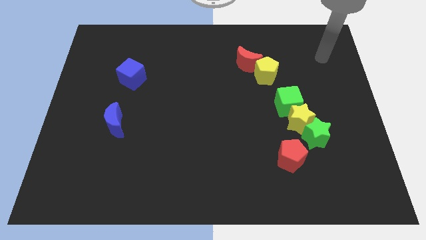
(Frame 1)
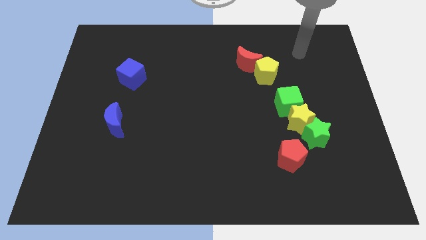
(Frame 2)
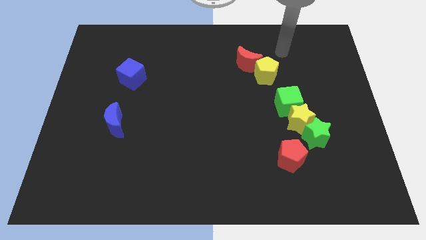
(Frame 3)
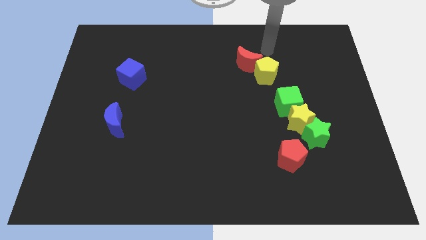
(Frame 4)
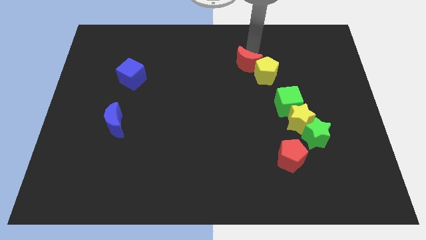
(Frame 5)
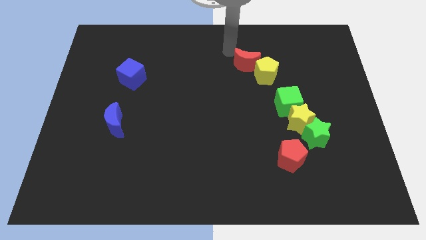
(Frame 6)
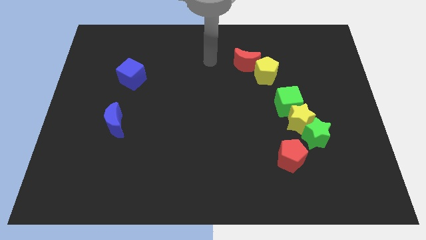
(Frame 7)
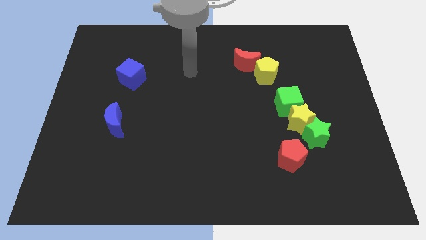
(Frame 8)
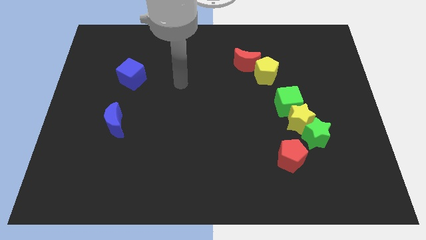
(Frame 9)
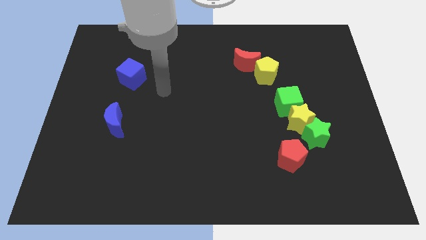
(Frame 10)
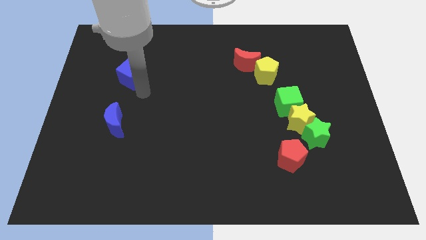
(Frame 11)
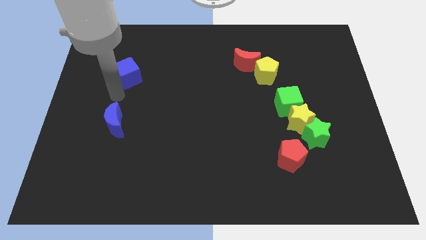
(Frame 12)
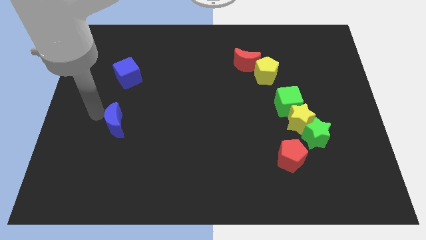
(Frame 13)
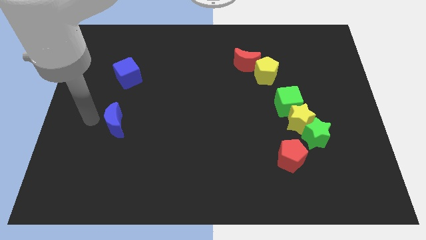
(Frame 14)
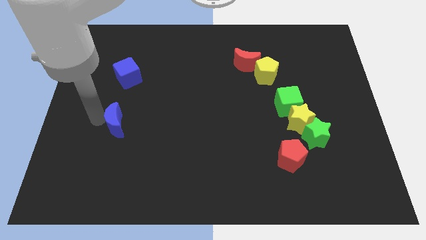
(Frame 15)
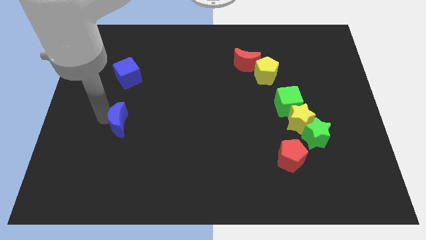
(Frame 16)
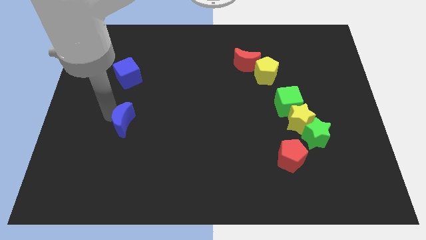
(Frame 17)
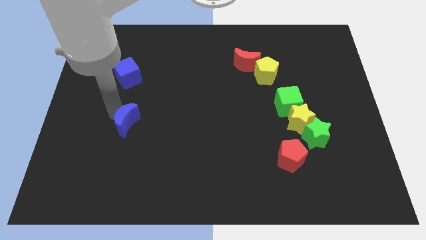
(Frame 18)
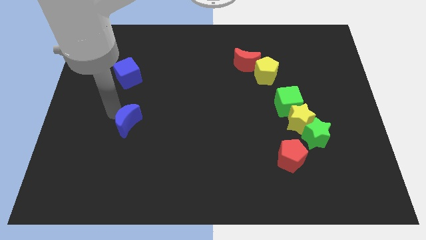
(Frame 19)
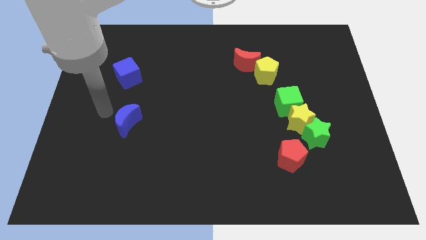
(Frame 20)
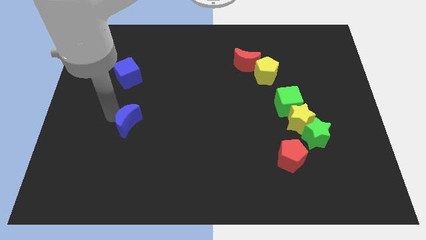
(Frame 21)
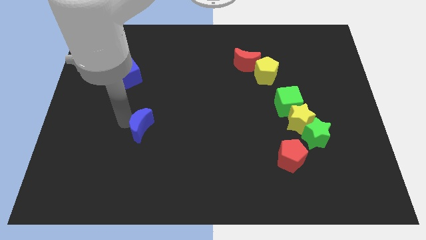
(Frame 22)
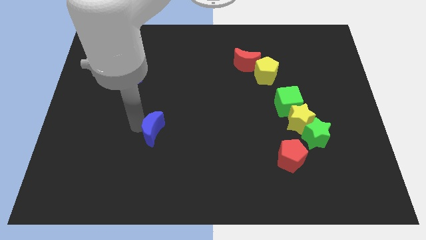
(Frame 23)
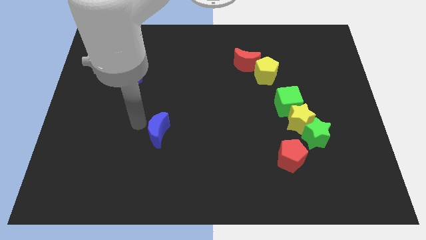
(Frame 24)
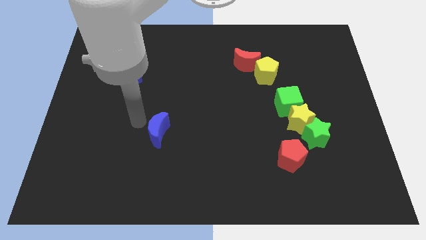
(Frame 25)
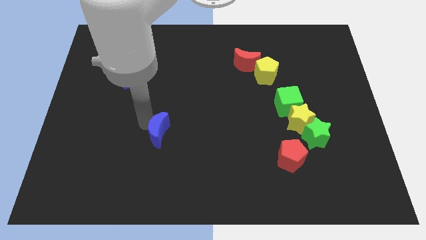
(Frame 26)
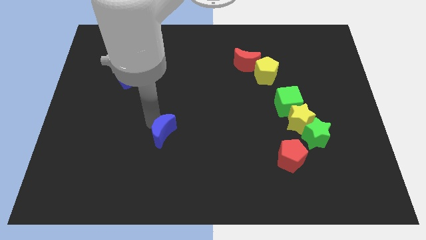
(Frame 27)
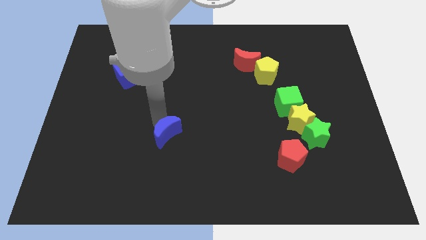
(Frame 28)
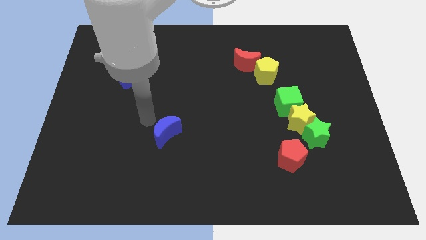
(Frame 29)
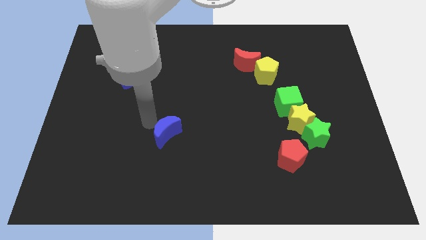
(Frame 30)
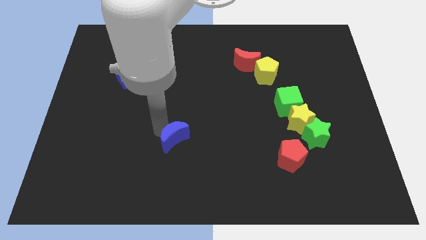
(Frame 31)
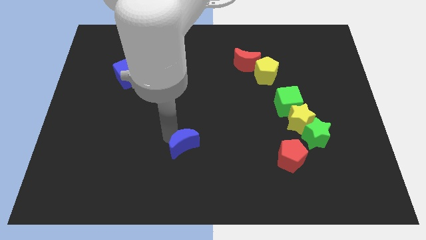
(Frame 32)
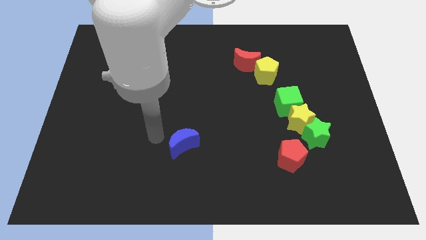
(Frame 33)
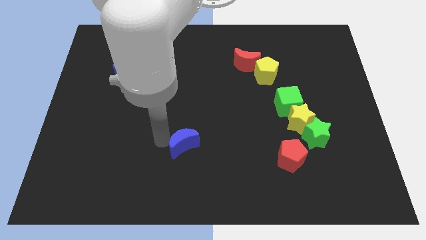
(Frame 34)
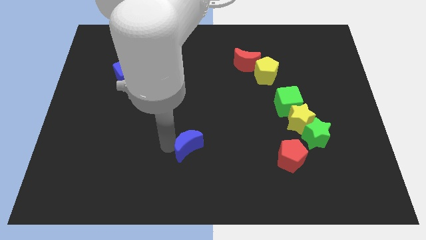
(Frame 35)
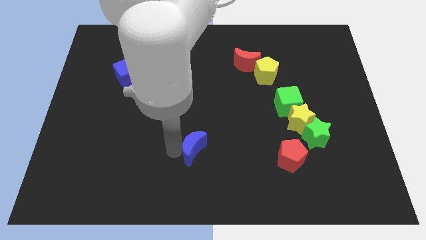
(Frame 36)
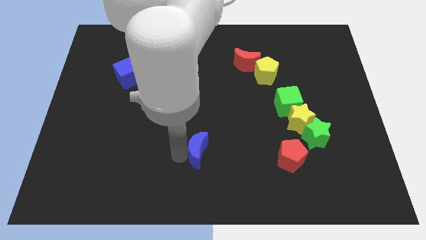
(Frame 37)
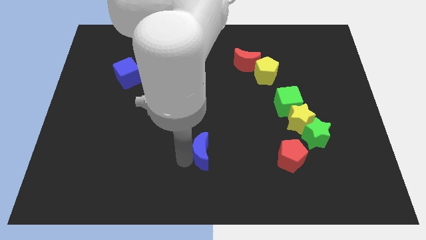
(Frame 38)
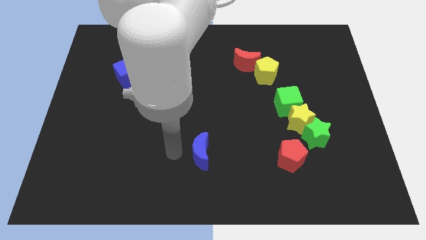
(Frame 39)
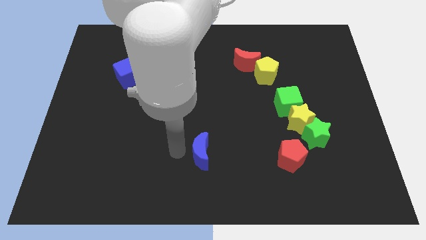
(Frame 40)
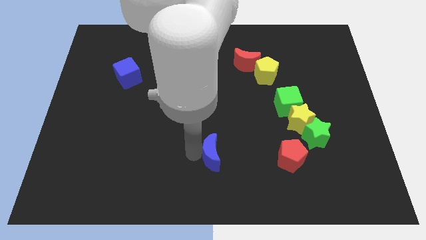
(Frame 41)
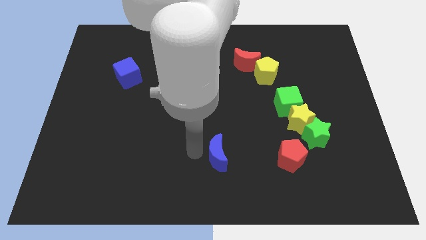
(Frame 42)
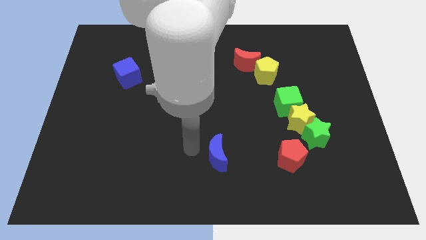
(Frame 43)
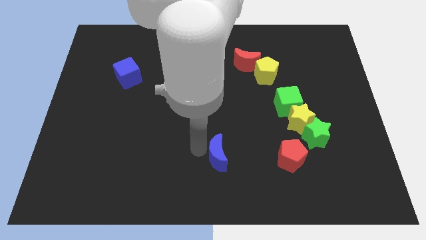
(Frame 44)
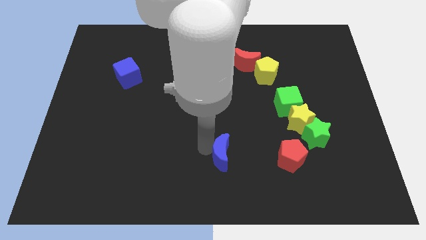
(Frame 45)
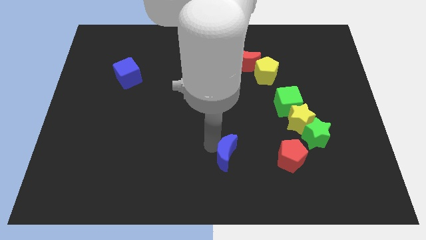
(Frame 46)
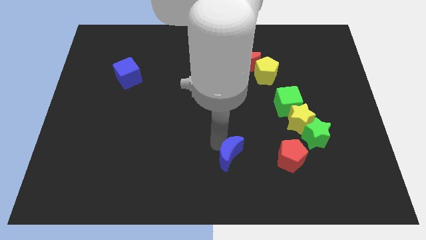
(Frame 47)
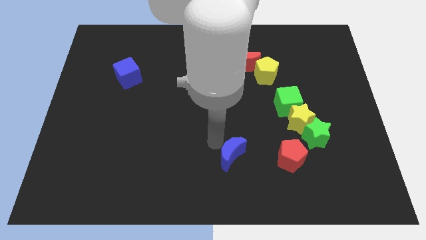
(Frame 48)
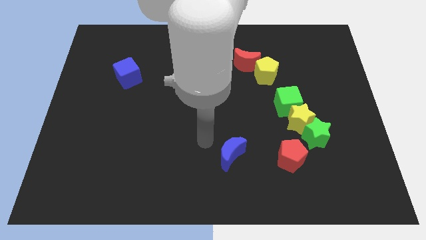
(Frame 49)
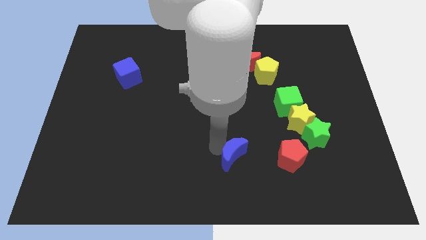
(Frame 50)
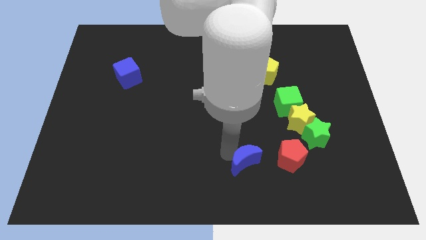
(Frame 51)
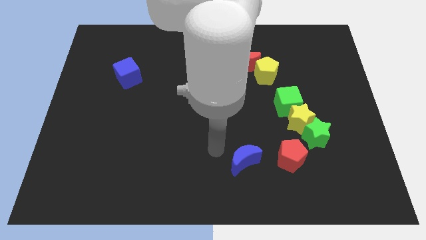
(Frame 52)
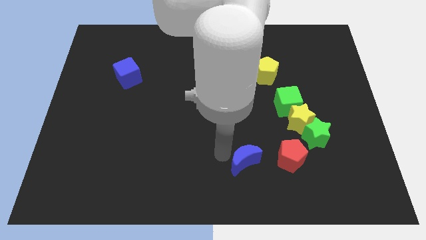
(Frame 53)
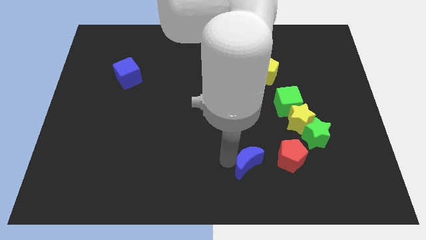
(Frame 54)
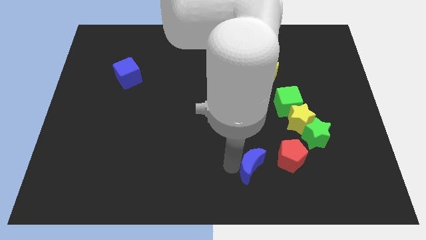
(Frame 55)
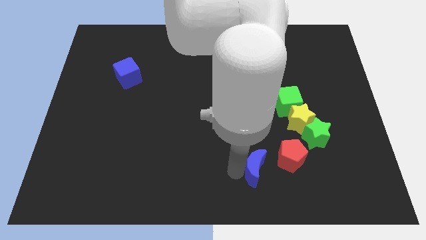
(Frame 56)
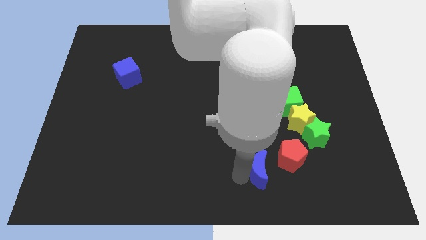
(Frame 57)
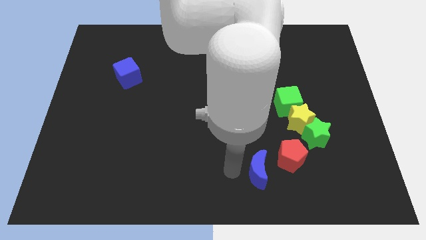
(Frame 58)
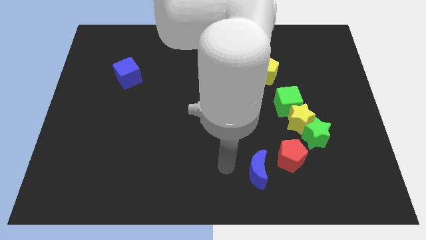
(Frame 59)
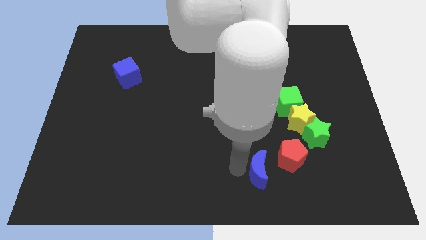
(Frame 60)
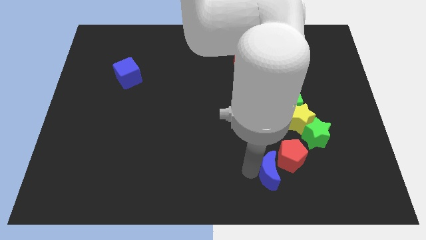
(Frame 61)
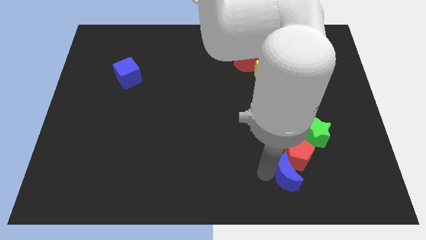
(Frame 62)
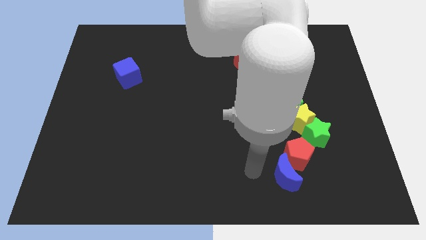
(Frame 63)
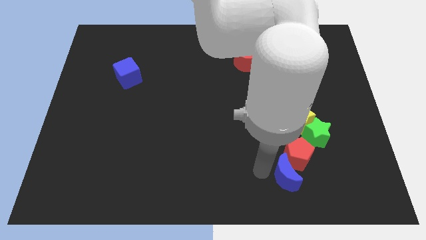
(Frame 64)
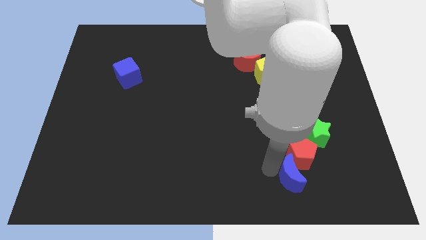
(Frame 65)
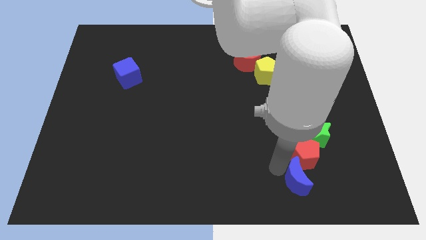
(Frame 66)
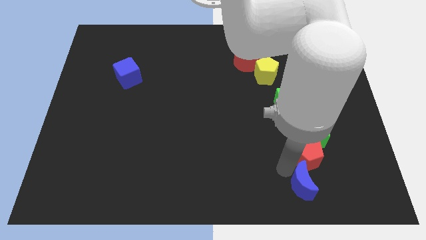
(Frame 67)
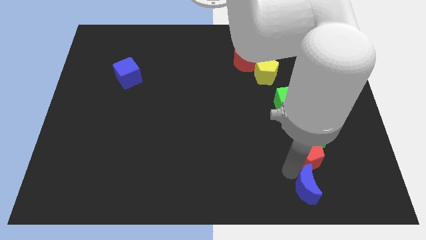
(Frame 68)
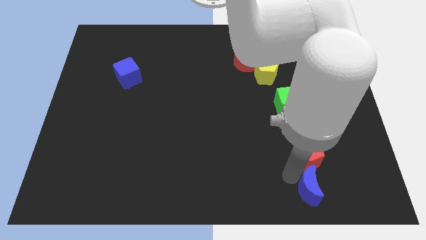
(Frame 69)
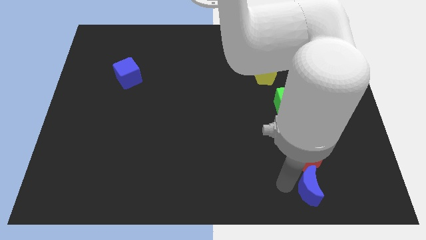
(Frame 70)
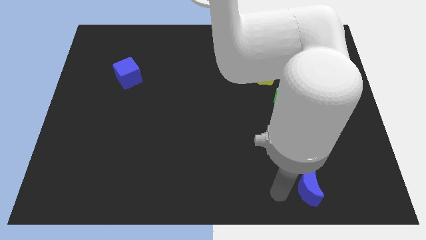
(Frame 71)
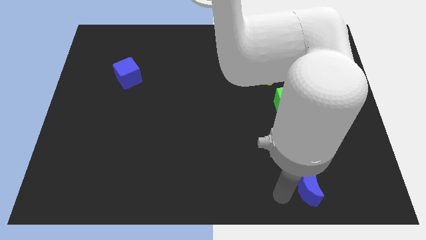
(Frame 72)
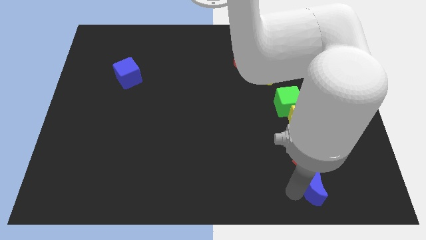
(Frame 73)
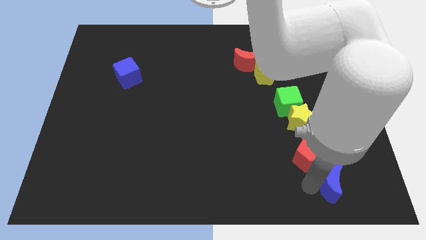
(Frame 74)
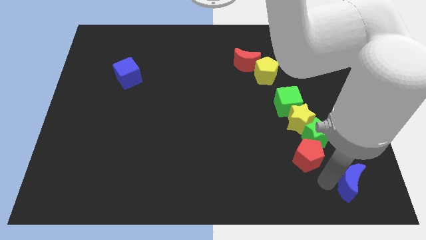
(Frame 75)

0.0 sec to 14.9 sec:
move the blue moon to the bottom right

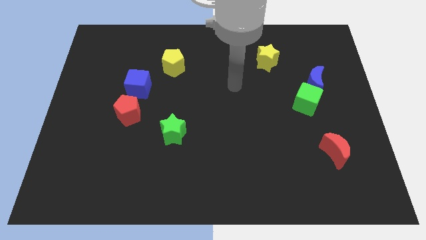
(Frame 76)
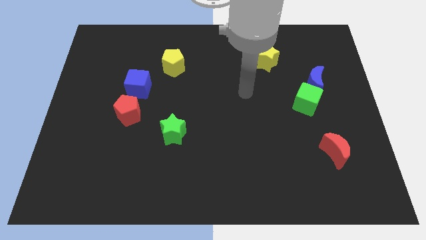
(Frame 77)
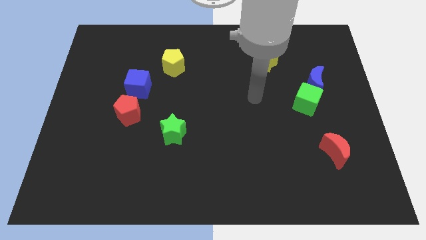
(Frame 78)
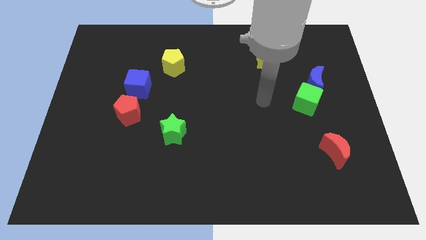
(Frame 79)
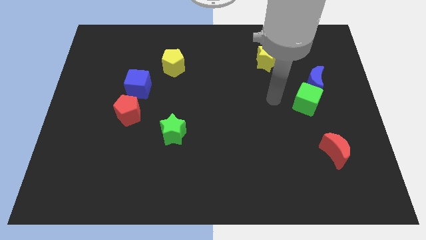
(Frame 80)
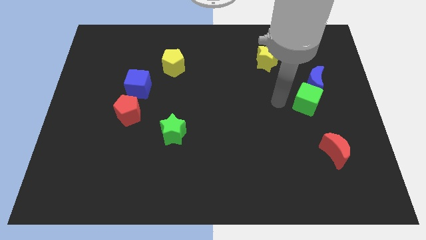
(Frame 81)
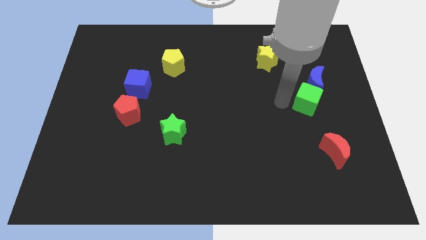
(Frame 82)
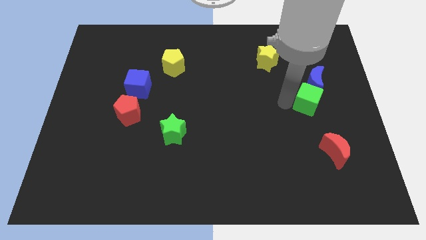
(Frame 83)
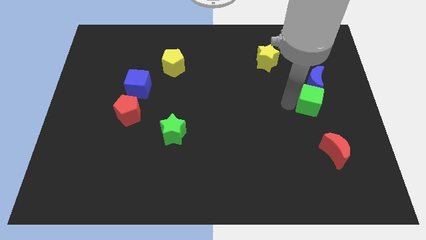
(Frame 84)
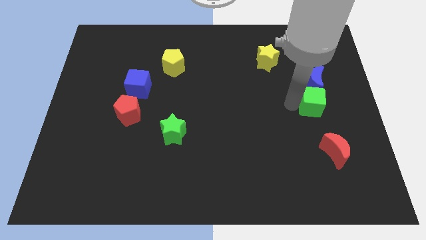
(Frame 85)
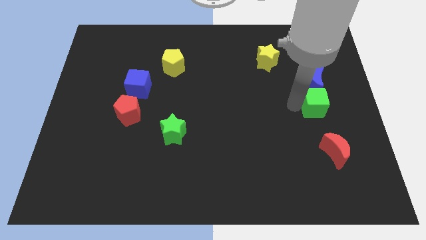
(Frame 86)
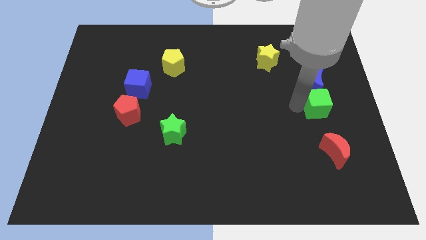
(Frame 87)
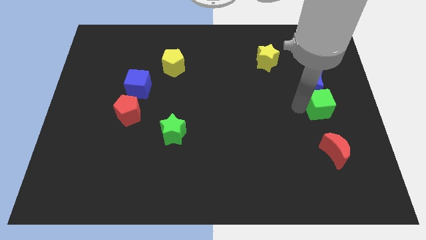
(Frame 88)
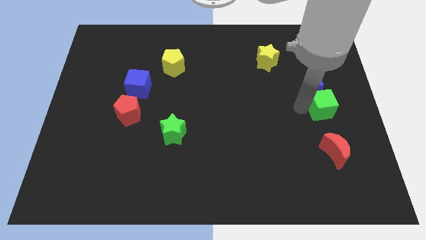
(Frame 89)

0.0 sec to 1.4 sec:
move the green cube to the center right
